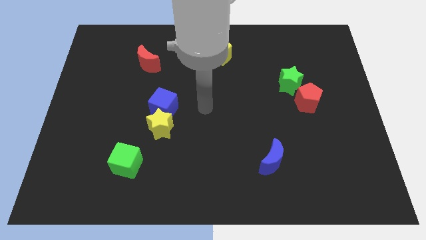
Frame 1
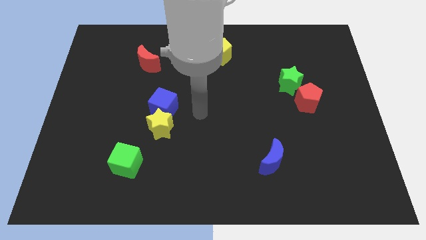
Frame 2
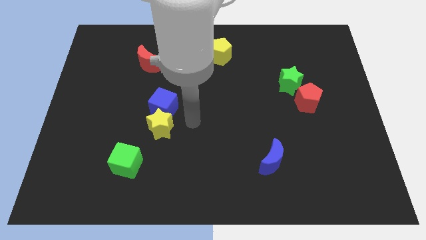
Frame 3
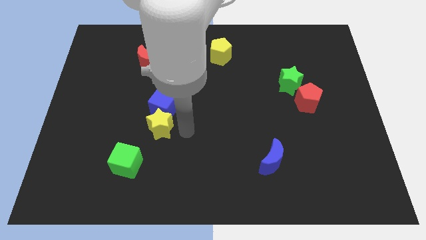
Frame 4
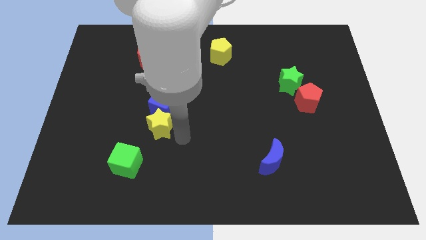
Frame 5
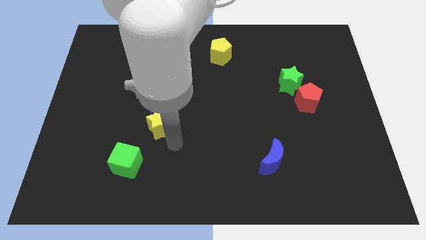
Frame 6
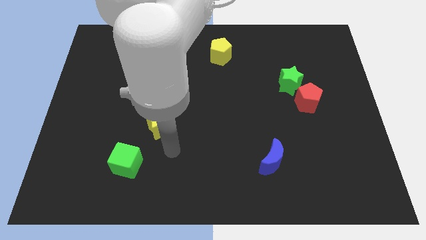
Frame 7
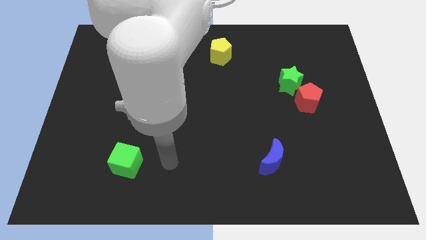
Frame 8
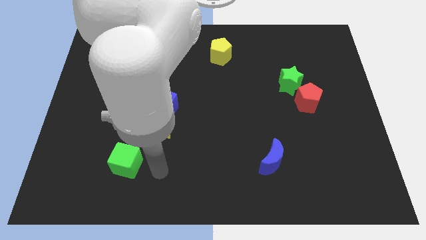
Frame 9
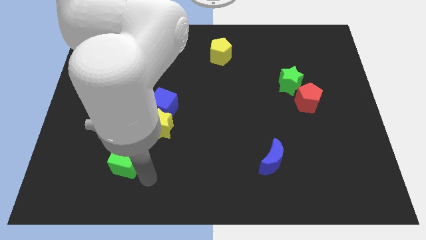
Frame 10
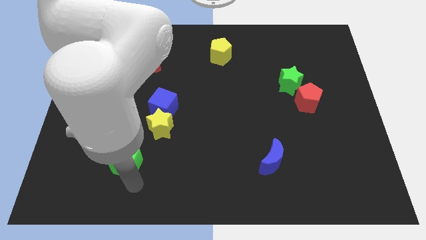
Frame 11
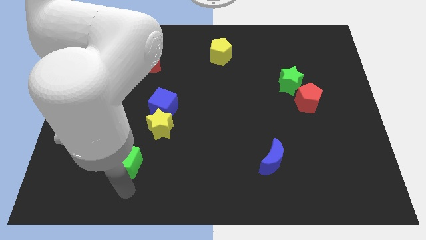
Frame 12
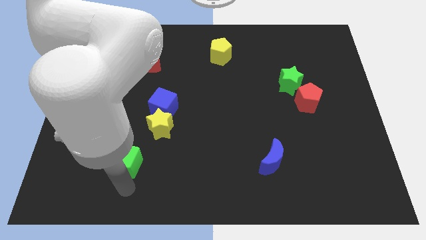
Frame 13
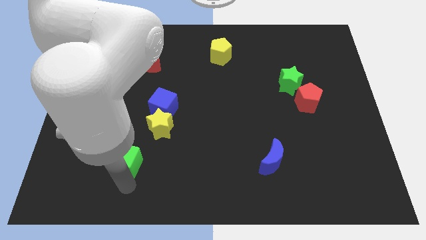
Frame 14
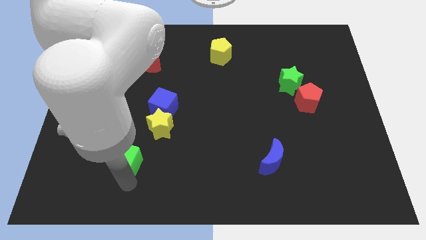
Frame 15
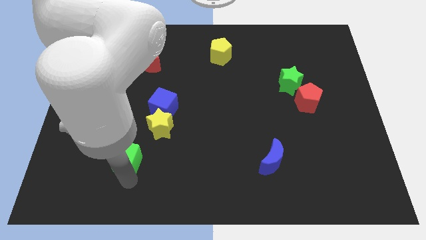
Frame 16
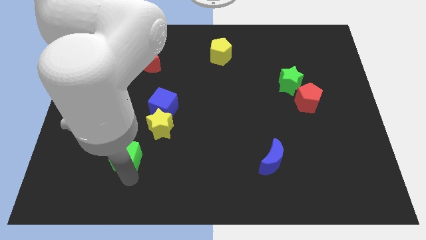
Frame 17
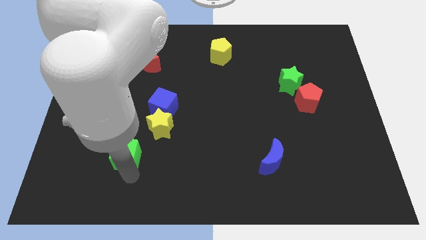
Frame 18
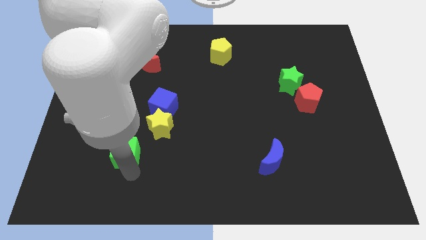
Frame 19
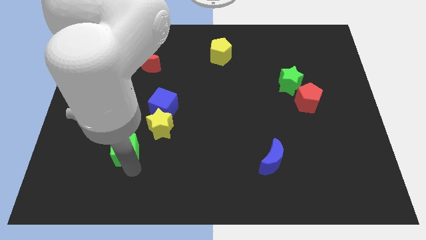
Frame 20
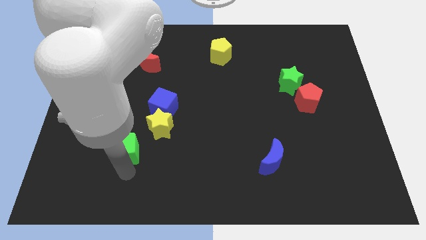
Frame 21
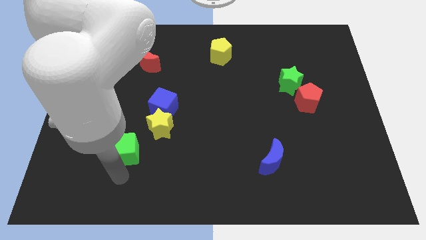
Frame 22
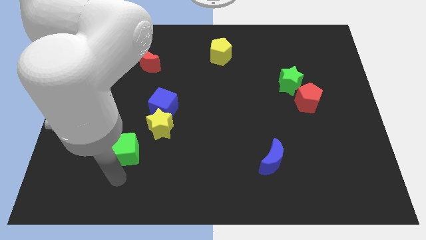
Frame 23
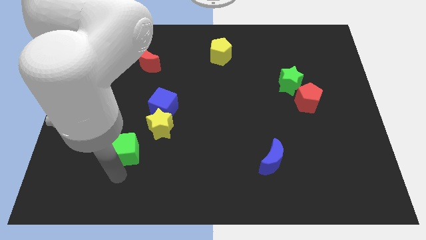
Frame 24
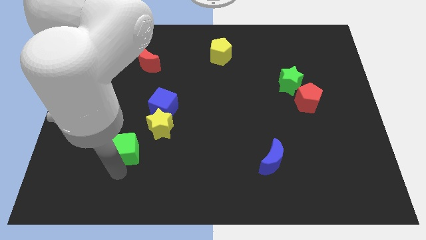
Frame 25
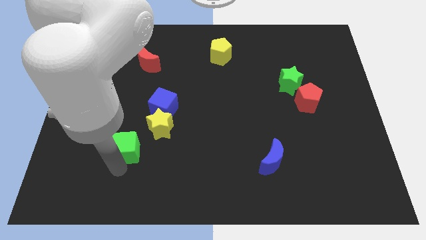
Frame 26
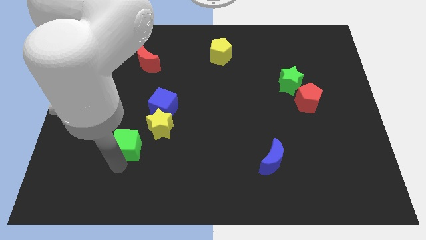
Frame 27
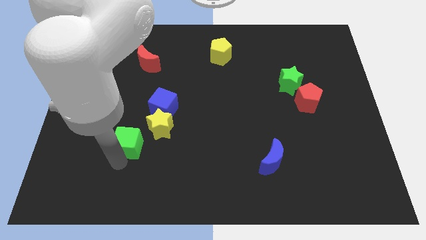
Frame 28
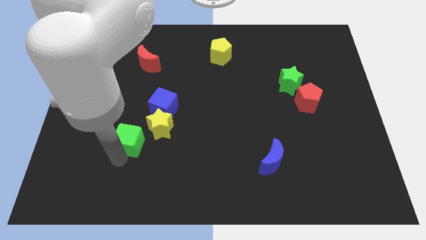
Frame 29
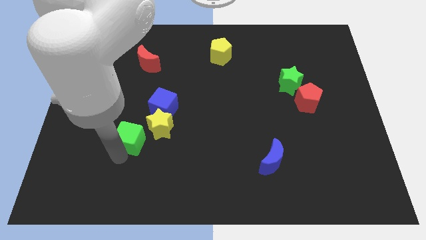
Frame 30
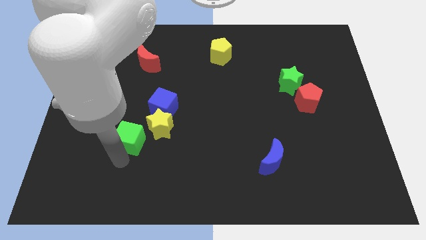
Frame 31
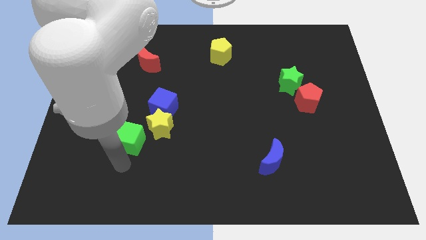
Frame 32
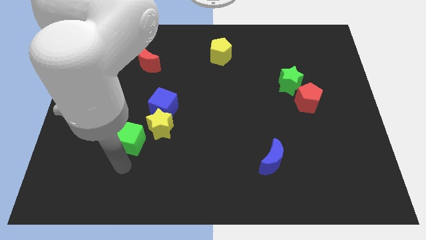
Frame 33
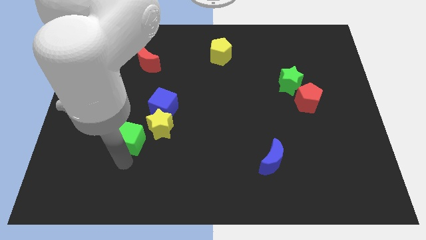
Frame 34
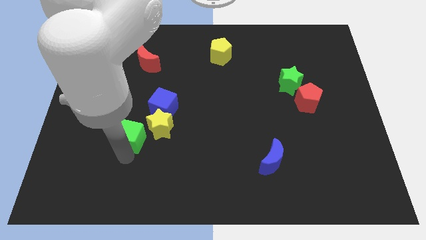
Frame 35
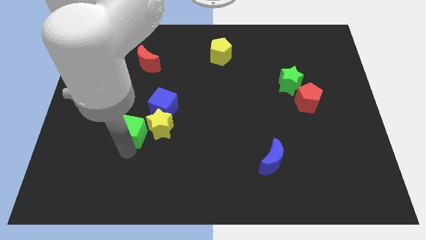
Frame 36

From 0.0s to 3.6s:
slightly push the green cube upwards

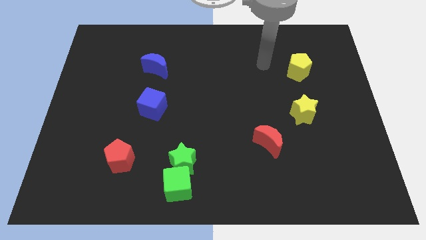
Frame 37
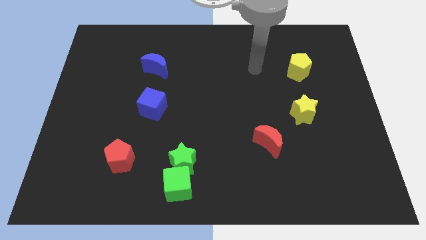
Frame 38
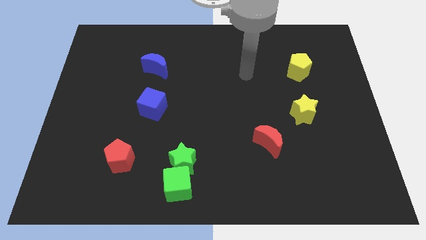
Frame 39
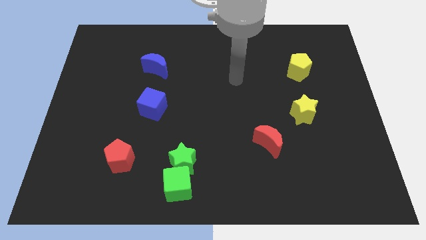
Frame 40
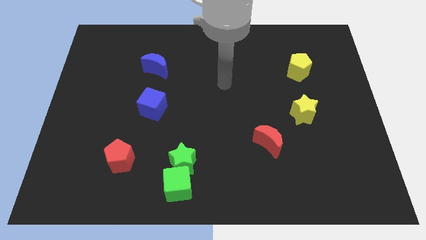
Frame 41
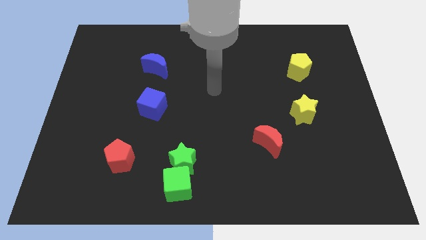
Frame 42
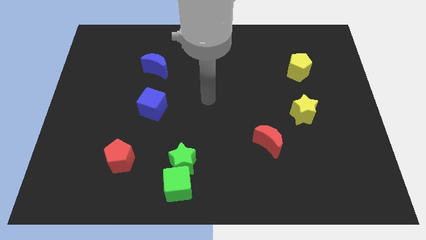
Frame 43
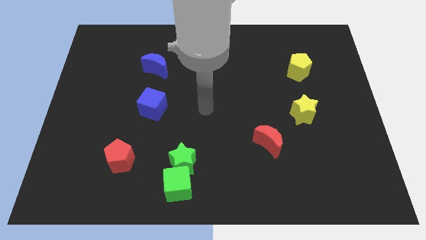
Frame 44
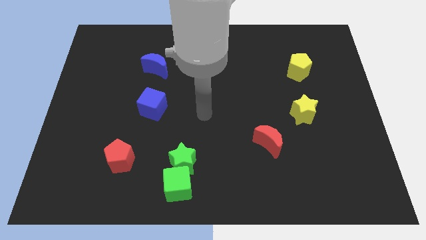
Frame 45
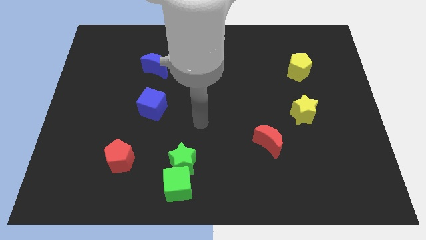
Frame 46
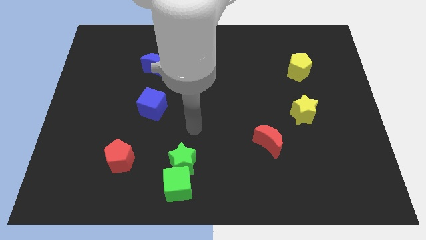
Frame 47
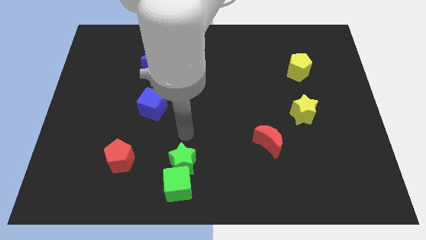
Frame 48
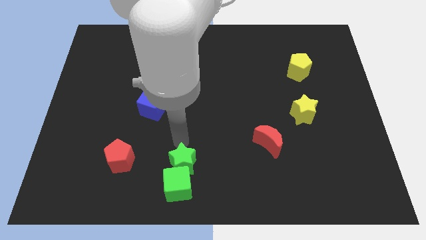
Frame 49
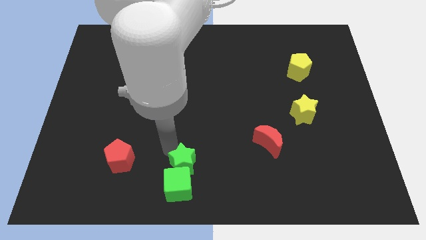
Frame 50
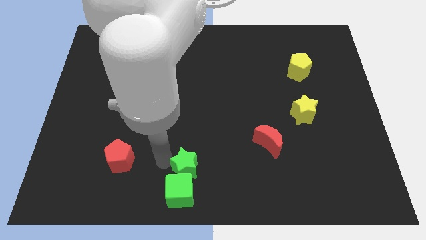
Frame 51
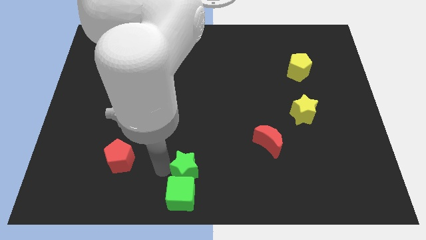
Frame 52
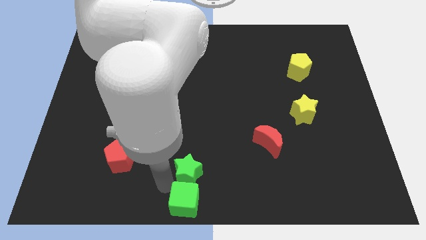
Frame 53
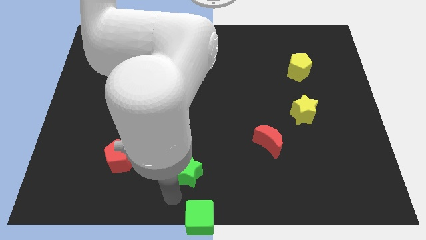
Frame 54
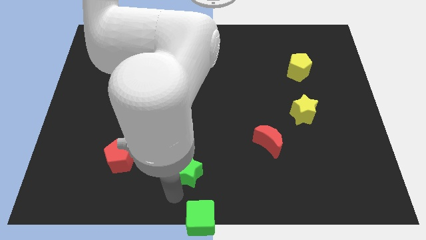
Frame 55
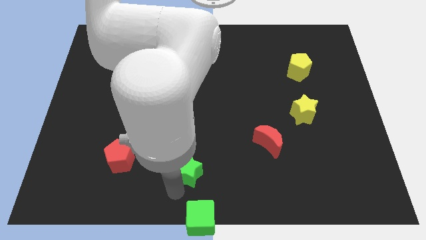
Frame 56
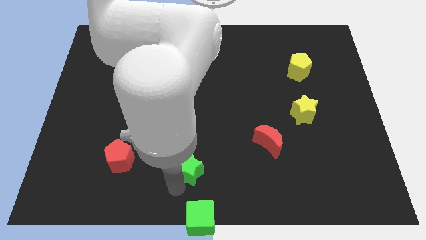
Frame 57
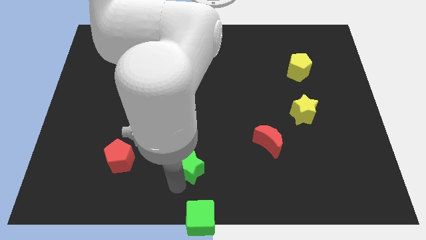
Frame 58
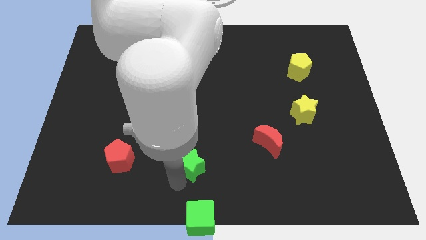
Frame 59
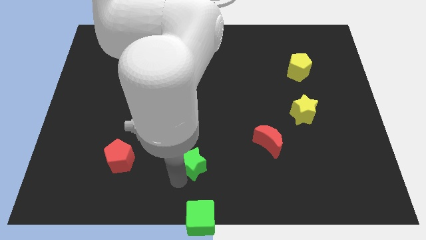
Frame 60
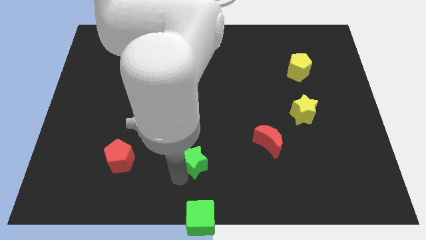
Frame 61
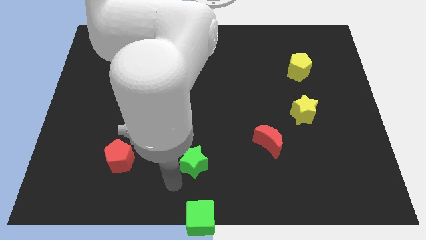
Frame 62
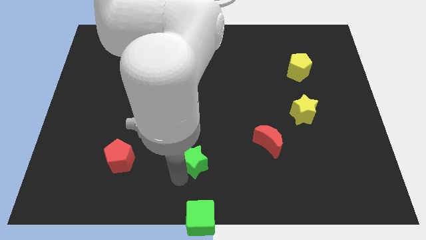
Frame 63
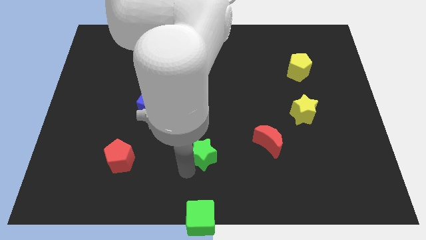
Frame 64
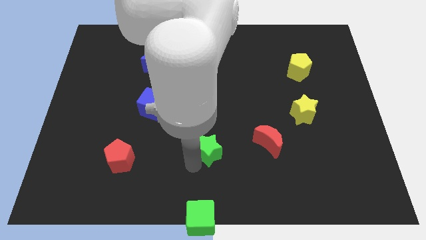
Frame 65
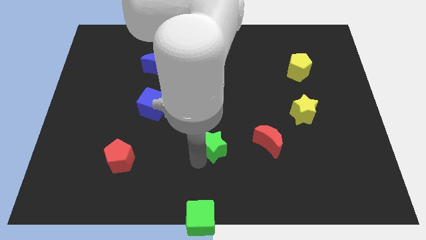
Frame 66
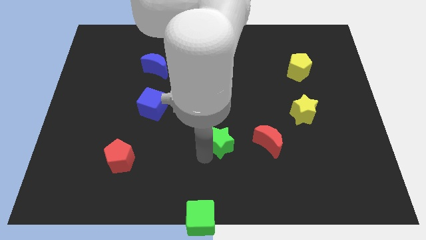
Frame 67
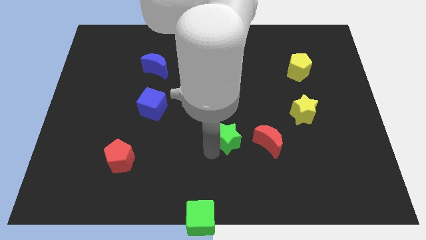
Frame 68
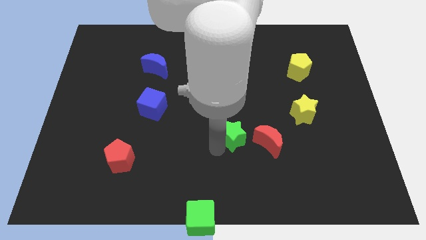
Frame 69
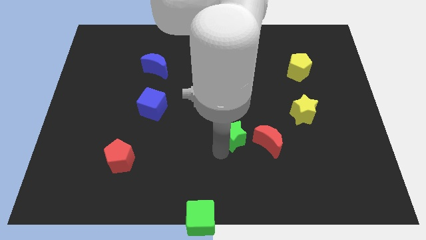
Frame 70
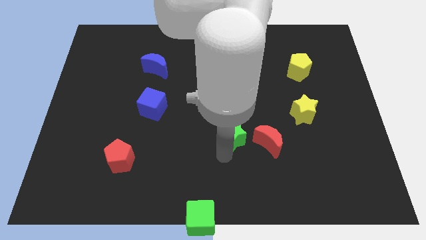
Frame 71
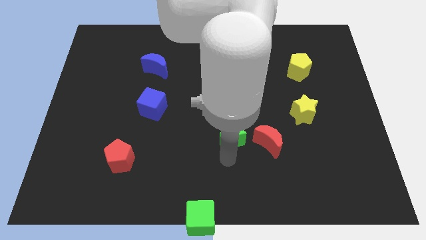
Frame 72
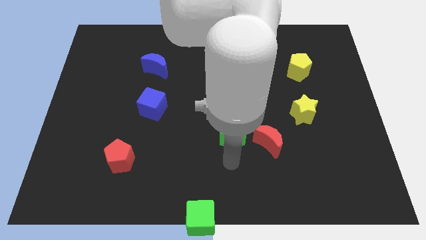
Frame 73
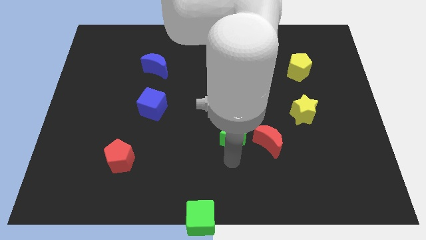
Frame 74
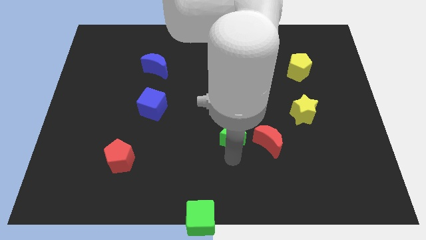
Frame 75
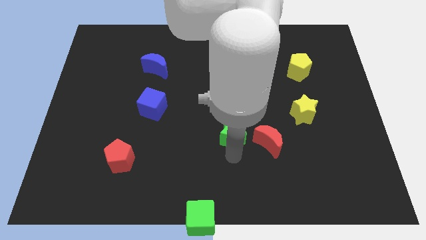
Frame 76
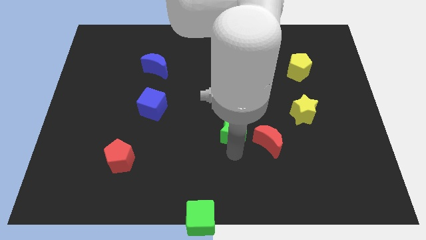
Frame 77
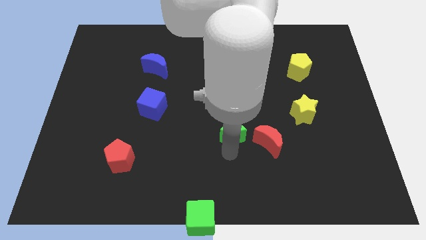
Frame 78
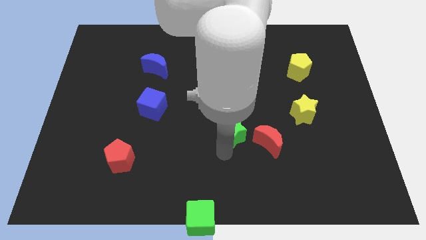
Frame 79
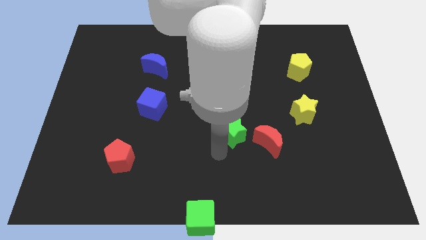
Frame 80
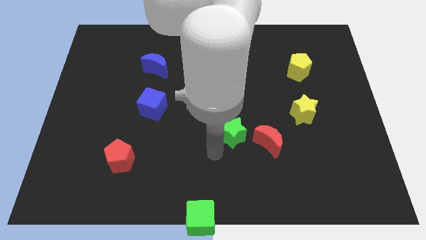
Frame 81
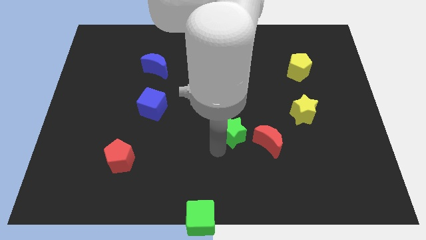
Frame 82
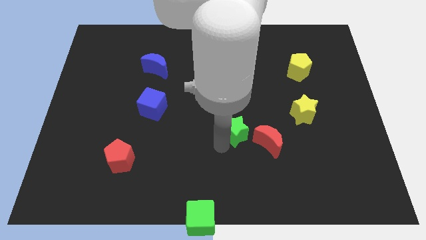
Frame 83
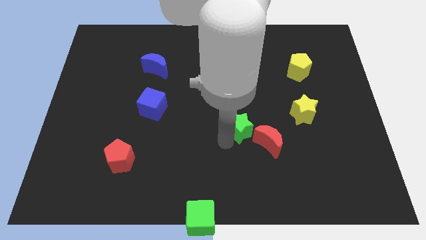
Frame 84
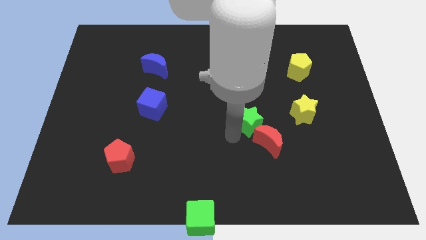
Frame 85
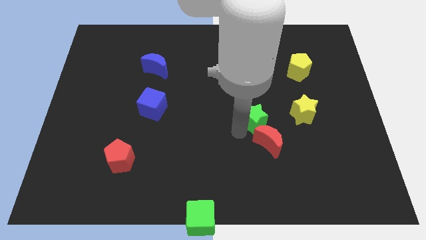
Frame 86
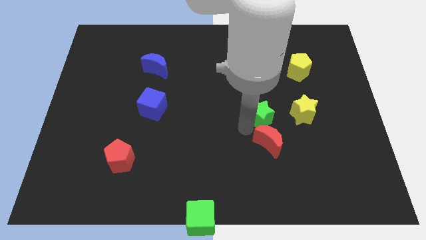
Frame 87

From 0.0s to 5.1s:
push the green star diagonally up and right
